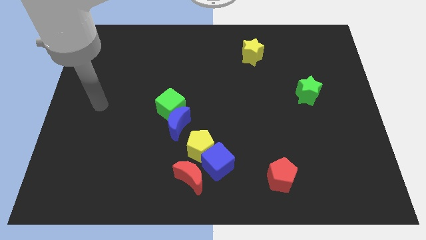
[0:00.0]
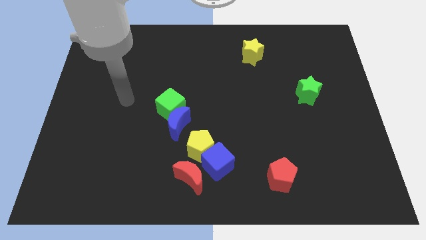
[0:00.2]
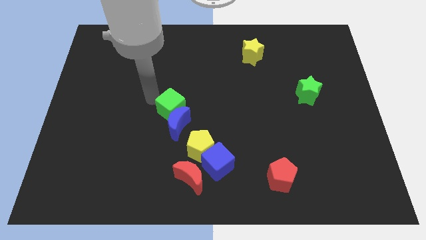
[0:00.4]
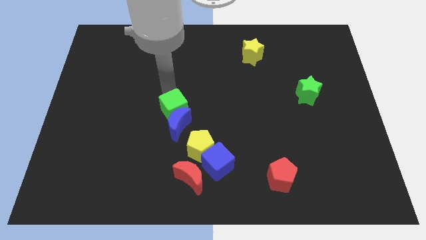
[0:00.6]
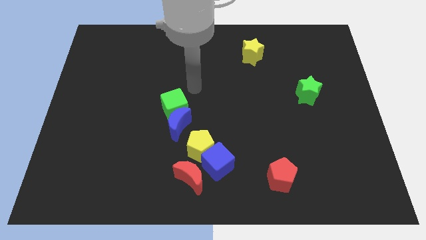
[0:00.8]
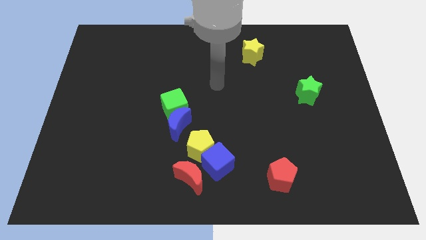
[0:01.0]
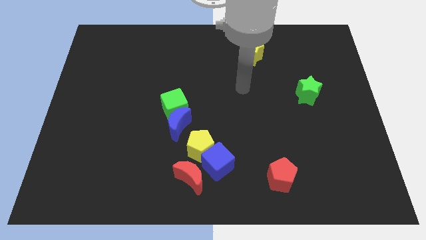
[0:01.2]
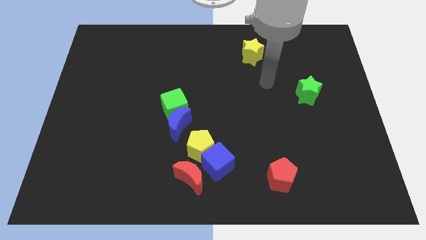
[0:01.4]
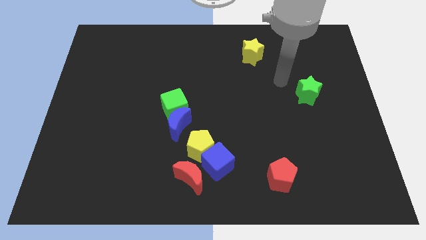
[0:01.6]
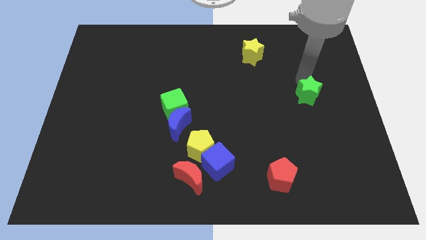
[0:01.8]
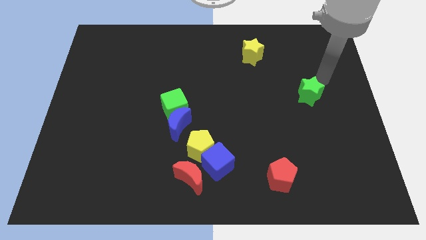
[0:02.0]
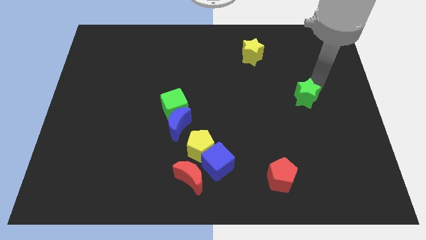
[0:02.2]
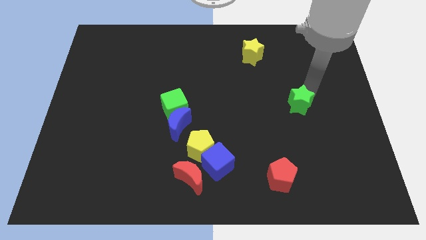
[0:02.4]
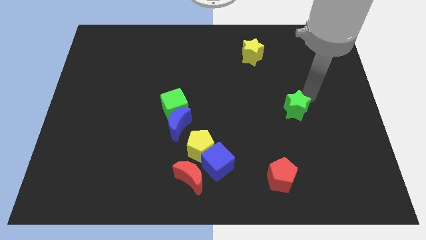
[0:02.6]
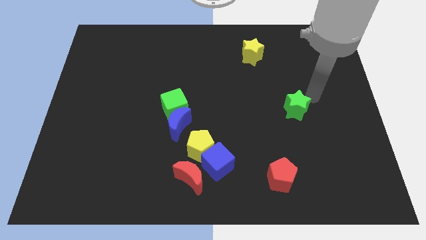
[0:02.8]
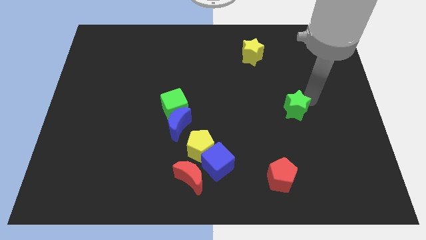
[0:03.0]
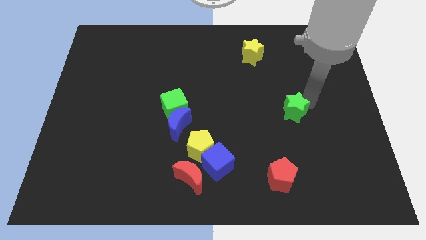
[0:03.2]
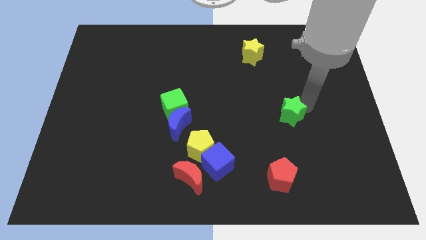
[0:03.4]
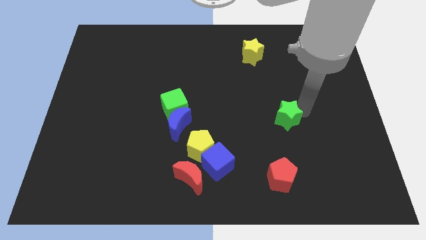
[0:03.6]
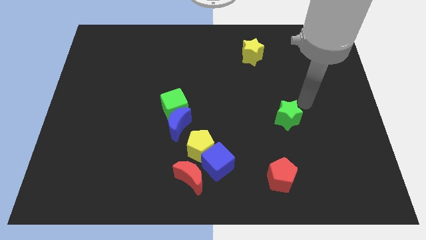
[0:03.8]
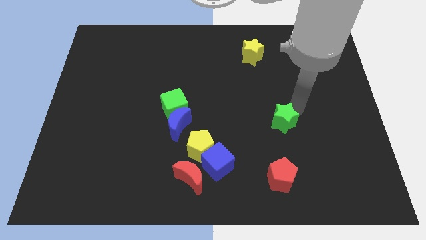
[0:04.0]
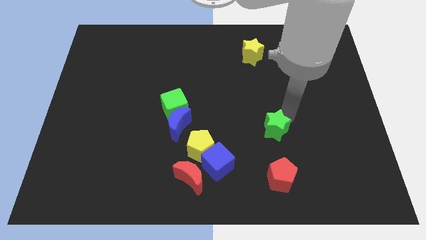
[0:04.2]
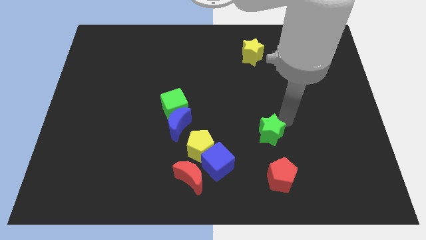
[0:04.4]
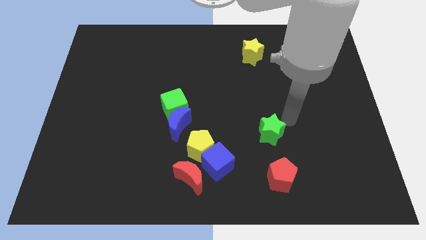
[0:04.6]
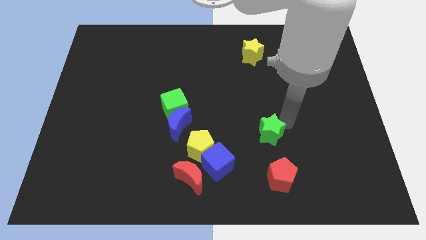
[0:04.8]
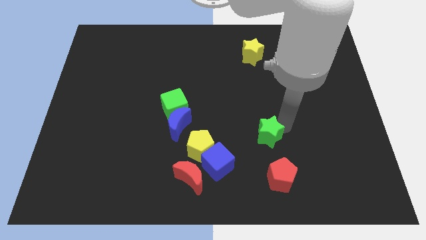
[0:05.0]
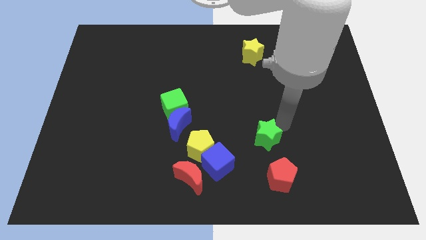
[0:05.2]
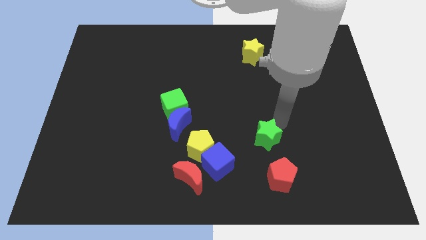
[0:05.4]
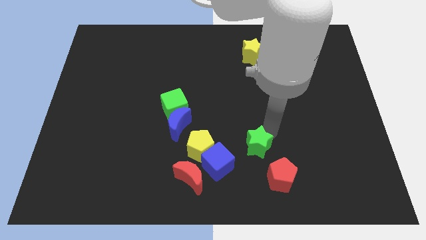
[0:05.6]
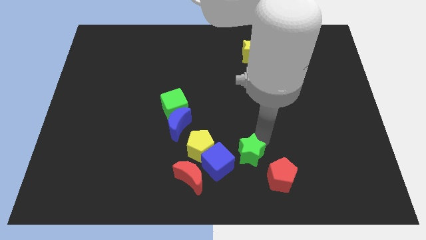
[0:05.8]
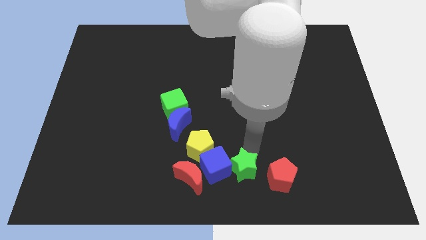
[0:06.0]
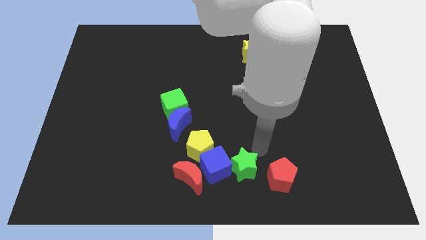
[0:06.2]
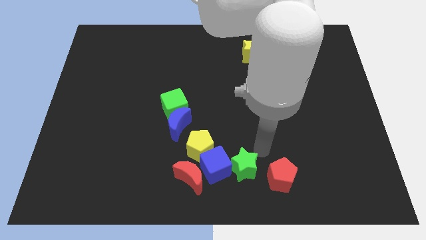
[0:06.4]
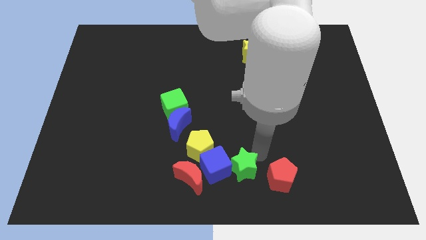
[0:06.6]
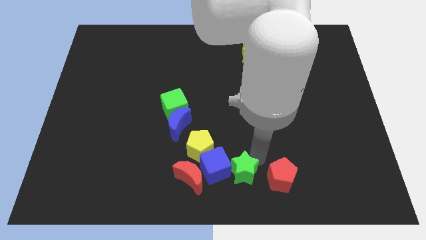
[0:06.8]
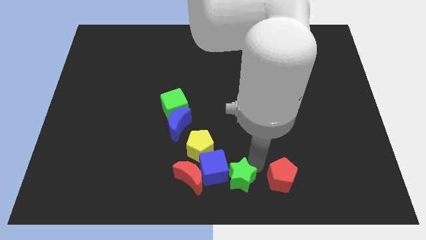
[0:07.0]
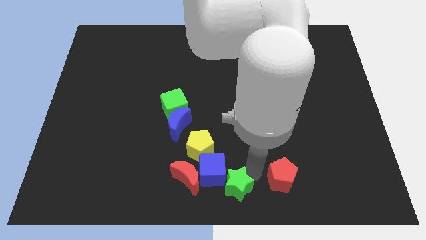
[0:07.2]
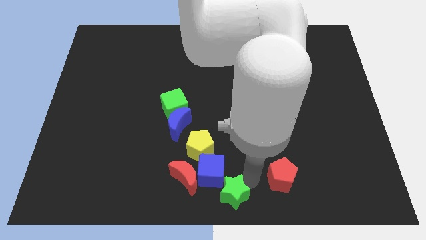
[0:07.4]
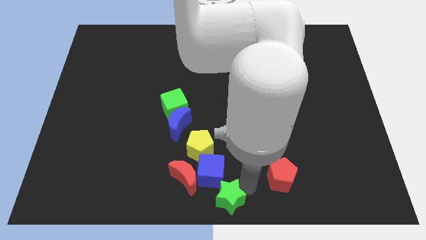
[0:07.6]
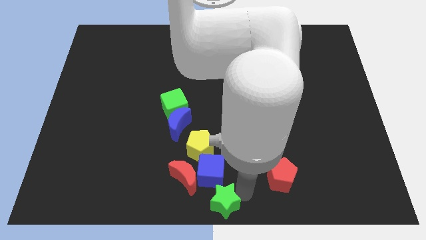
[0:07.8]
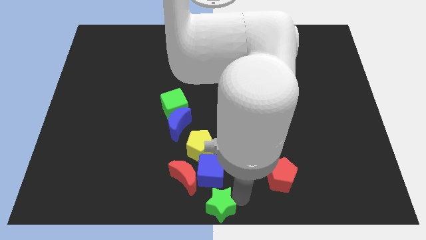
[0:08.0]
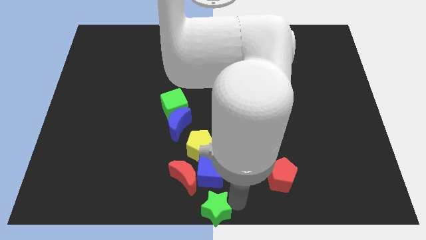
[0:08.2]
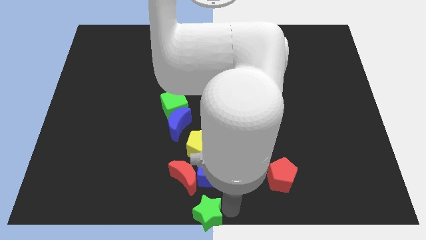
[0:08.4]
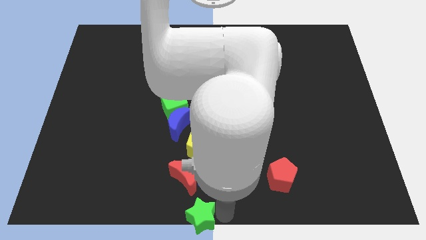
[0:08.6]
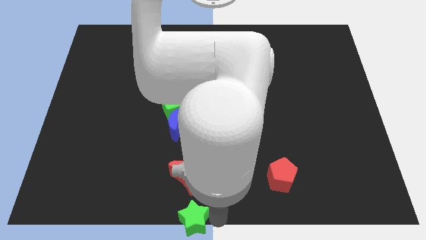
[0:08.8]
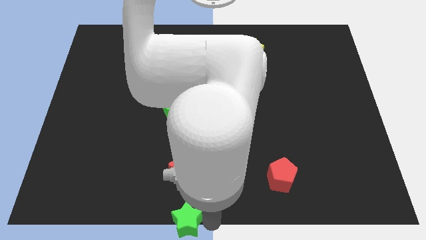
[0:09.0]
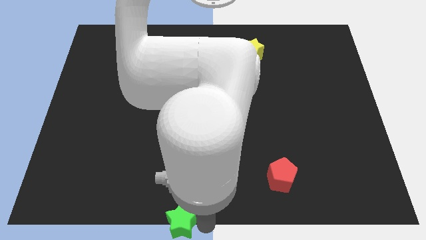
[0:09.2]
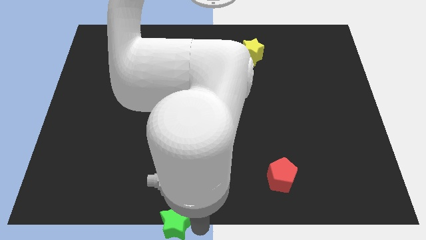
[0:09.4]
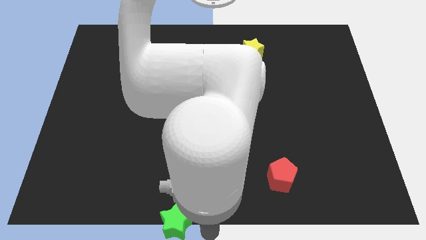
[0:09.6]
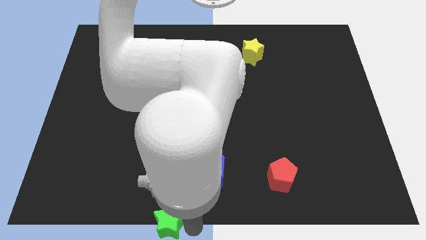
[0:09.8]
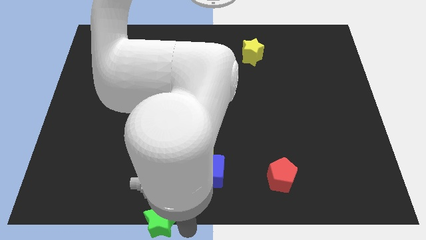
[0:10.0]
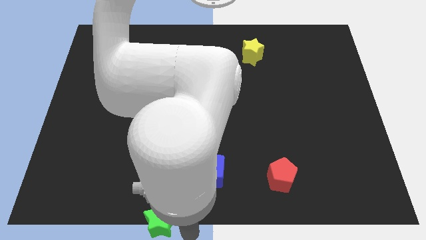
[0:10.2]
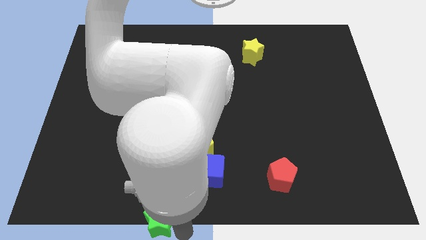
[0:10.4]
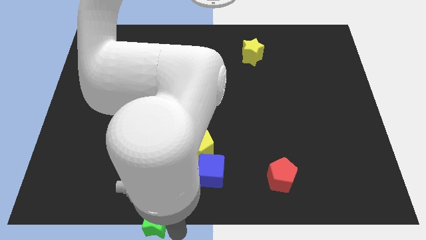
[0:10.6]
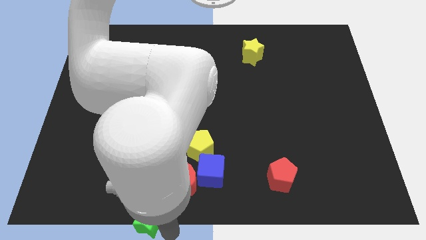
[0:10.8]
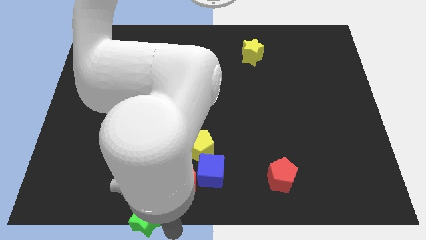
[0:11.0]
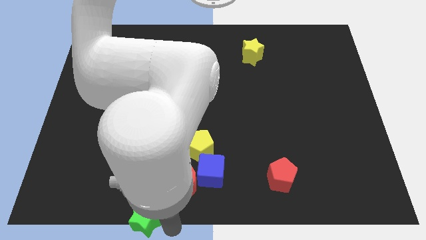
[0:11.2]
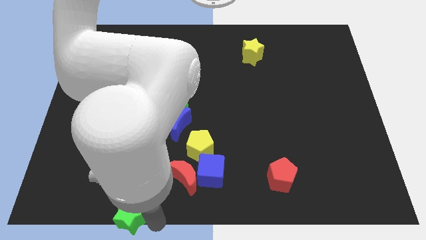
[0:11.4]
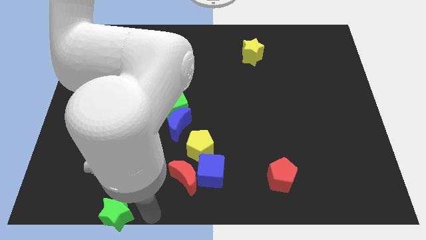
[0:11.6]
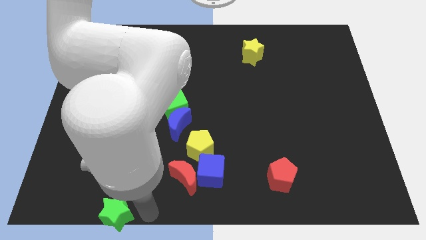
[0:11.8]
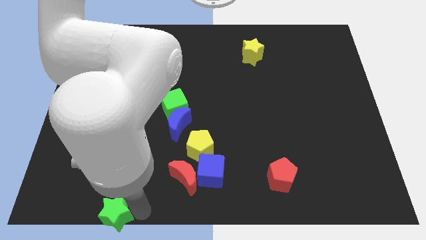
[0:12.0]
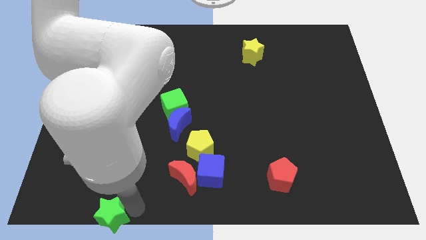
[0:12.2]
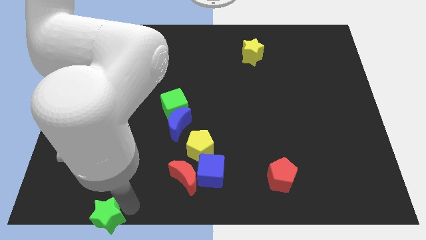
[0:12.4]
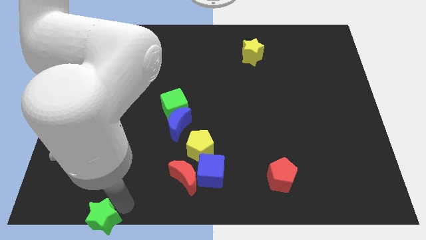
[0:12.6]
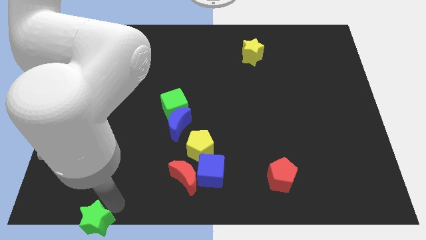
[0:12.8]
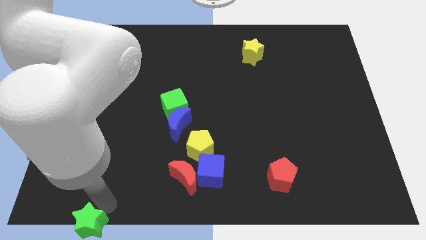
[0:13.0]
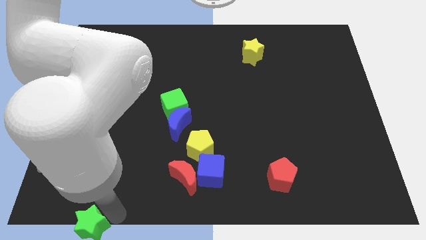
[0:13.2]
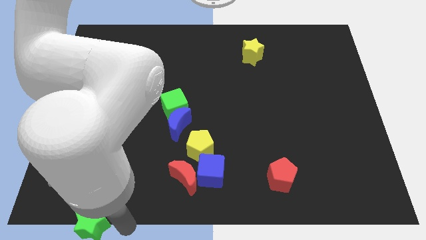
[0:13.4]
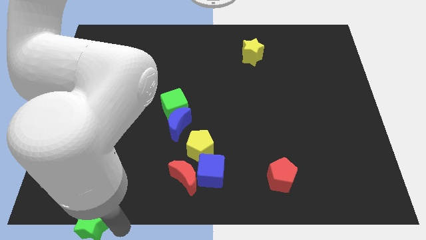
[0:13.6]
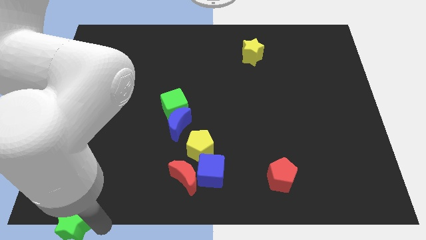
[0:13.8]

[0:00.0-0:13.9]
move the green star to the bottom left corner
